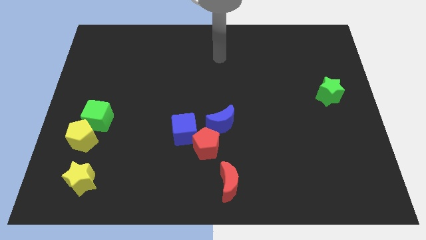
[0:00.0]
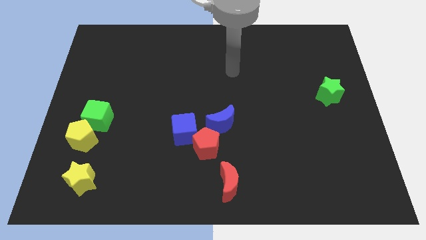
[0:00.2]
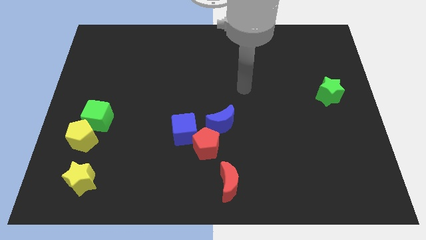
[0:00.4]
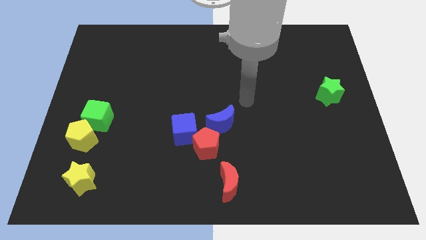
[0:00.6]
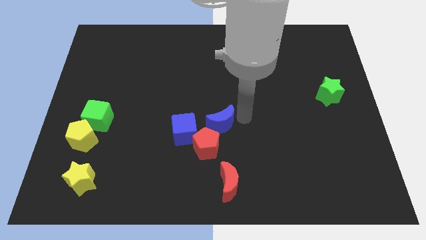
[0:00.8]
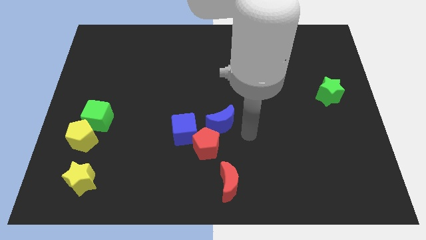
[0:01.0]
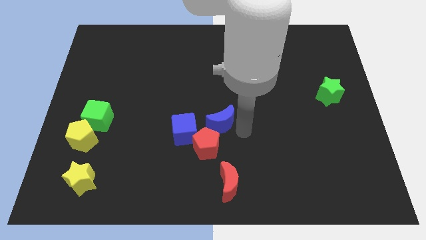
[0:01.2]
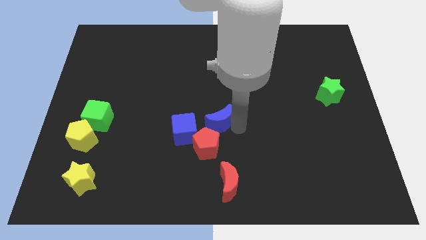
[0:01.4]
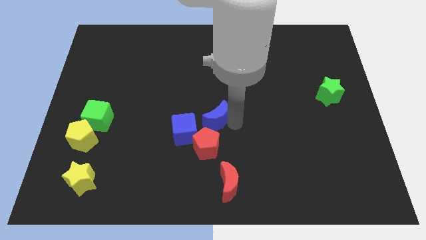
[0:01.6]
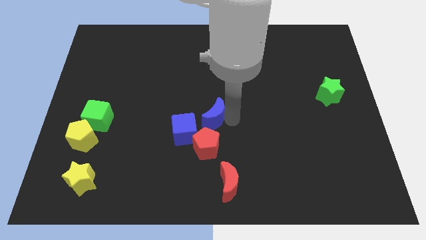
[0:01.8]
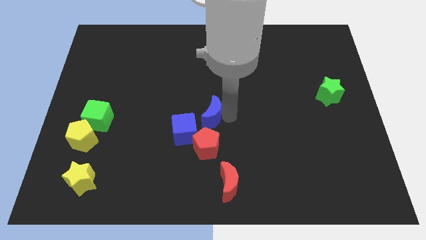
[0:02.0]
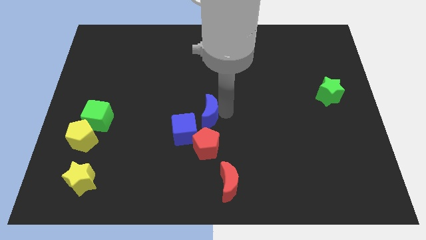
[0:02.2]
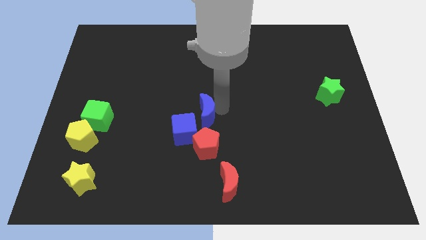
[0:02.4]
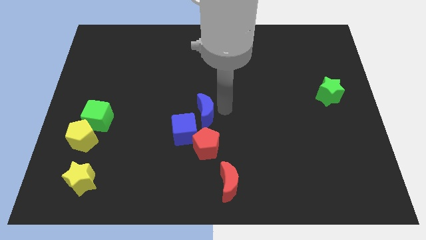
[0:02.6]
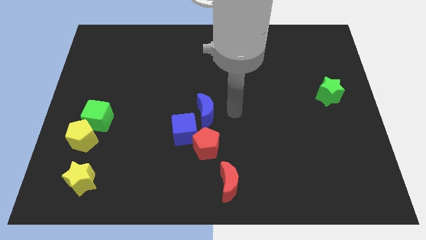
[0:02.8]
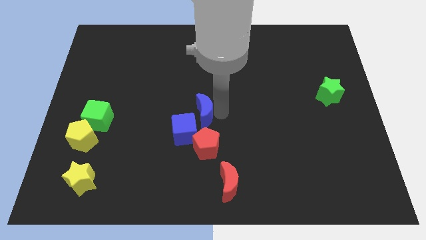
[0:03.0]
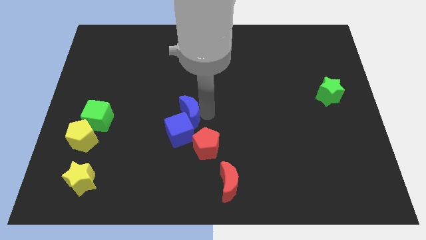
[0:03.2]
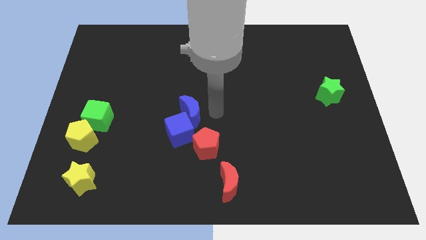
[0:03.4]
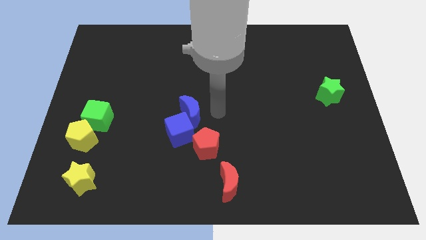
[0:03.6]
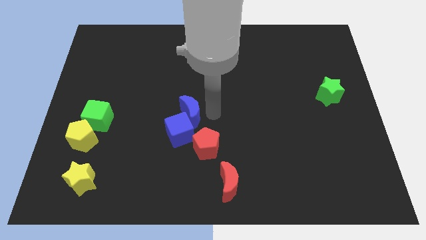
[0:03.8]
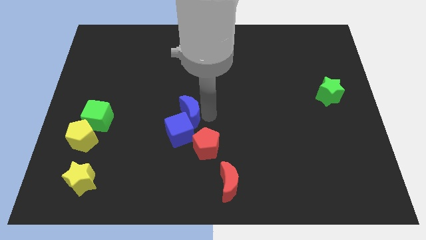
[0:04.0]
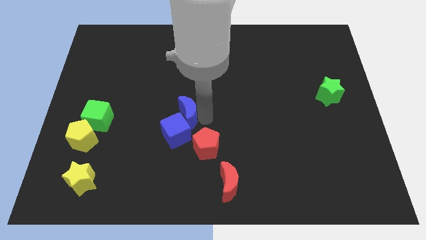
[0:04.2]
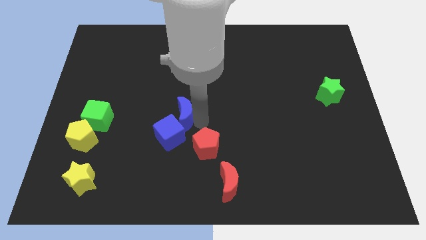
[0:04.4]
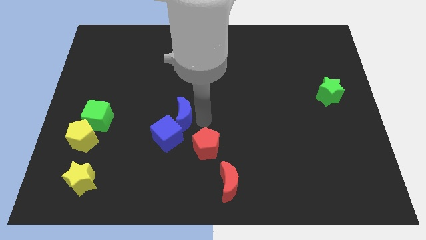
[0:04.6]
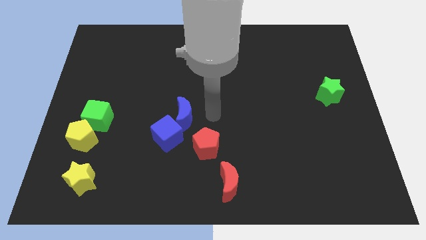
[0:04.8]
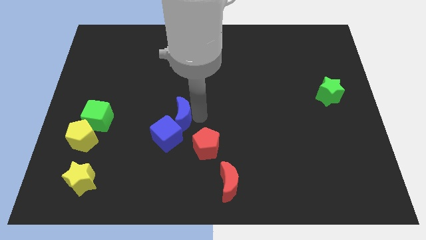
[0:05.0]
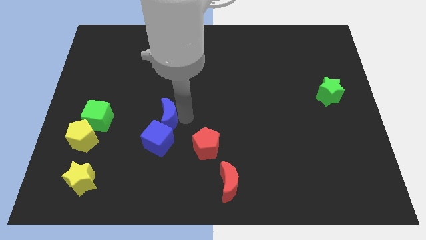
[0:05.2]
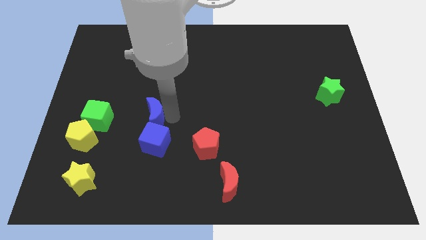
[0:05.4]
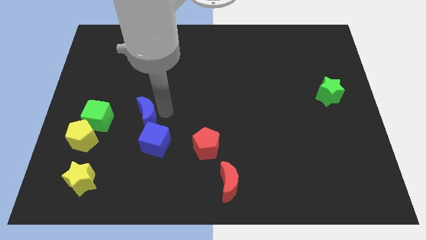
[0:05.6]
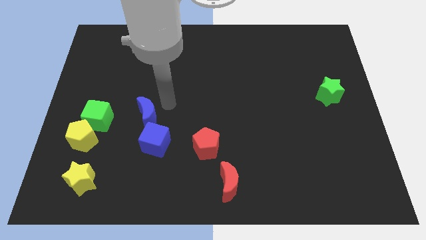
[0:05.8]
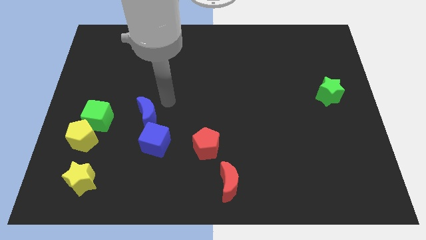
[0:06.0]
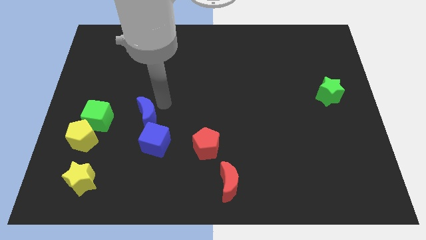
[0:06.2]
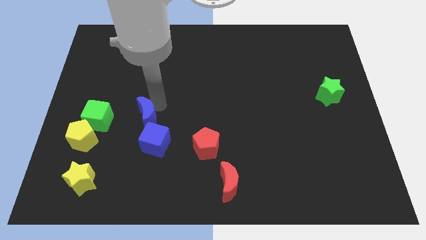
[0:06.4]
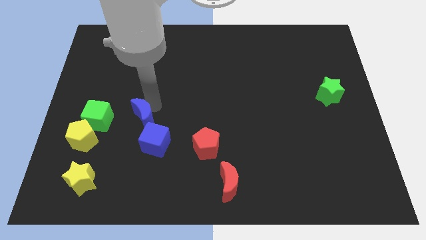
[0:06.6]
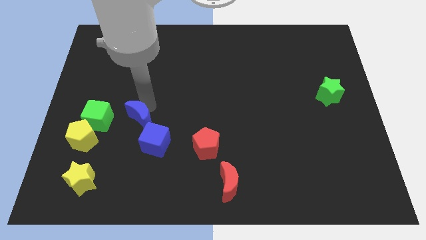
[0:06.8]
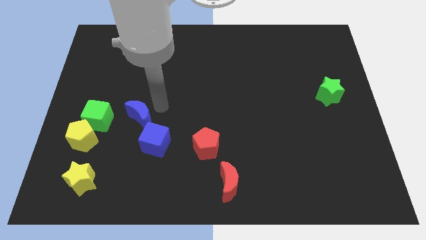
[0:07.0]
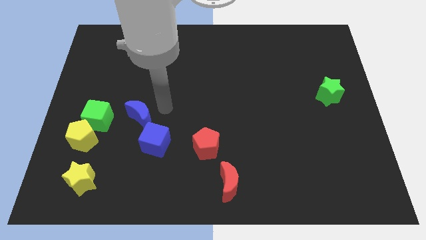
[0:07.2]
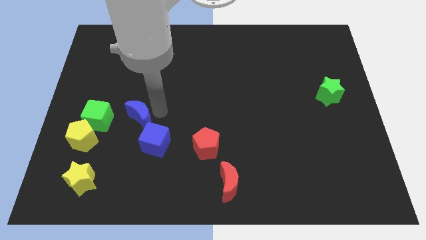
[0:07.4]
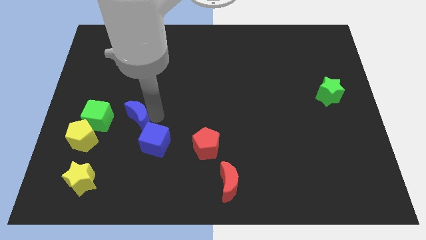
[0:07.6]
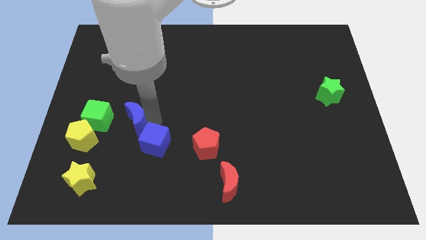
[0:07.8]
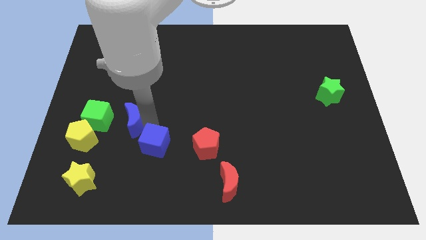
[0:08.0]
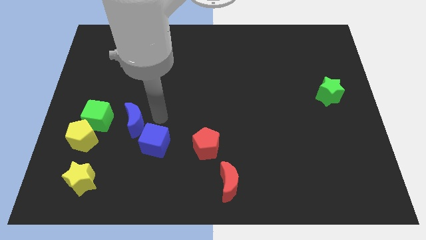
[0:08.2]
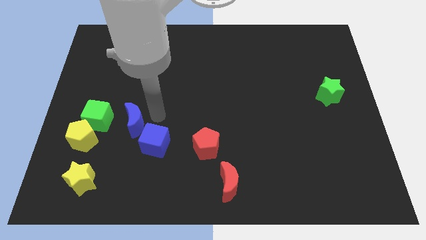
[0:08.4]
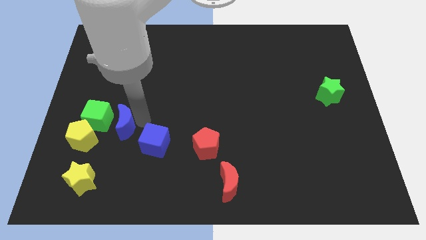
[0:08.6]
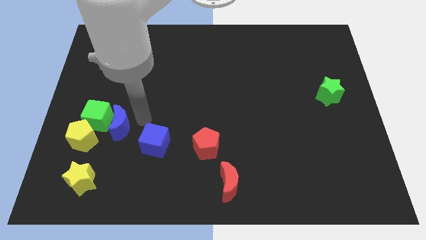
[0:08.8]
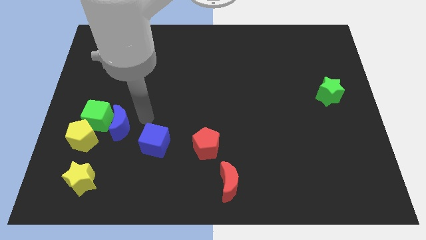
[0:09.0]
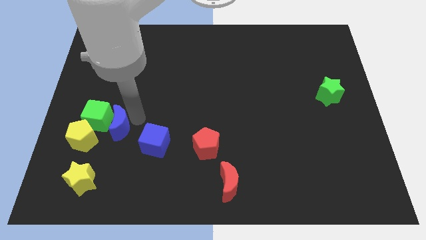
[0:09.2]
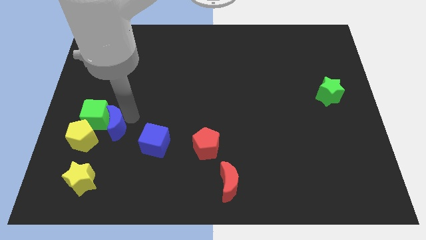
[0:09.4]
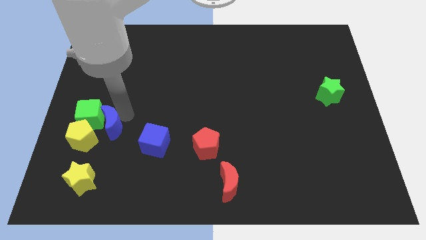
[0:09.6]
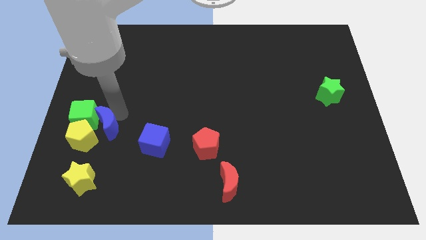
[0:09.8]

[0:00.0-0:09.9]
slide the blue moon next to the yellow pentagon

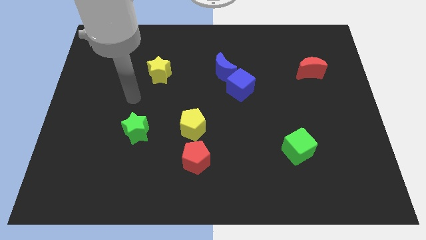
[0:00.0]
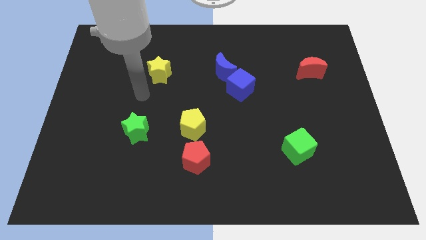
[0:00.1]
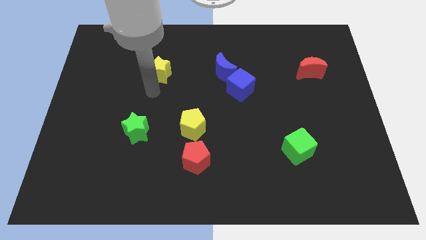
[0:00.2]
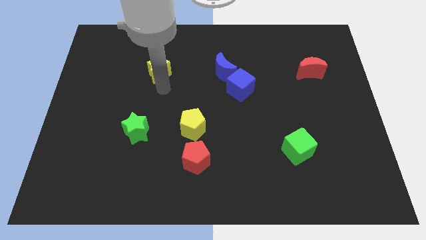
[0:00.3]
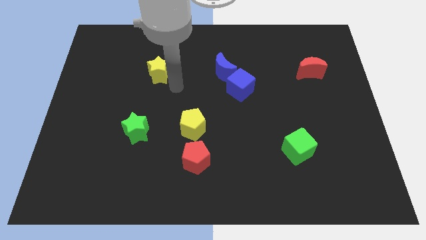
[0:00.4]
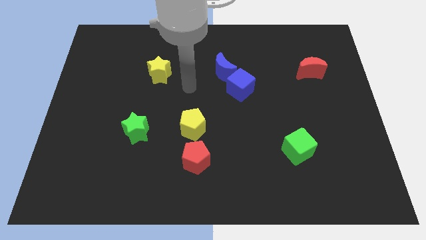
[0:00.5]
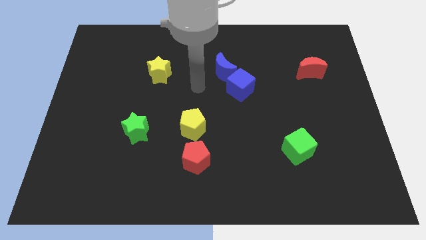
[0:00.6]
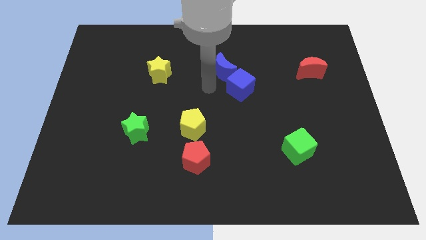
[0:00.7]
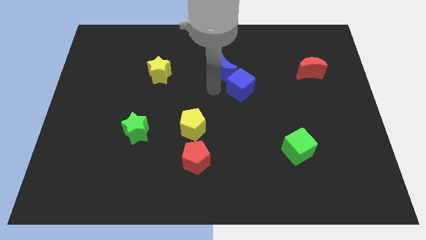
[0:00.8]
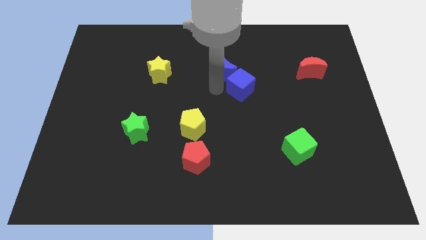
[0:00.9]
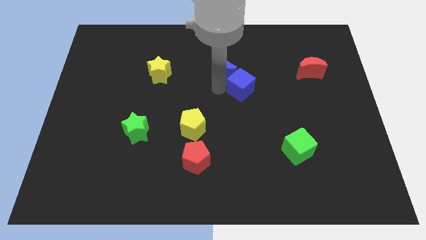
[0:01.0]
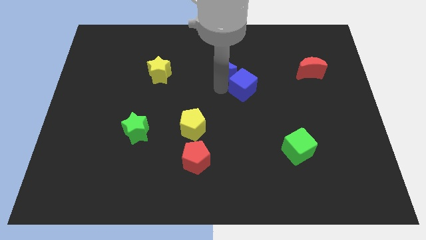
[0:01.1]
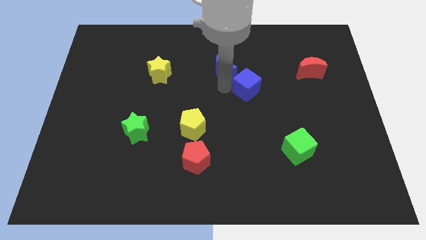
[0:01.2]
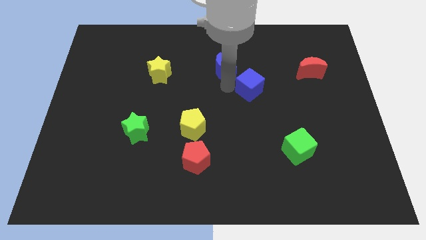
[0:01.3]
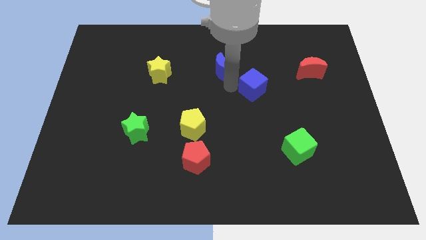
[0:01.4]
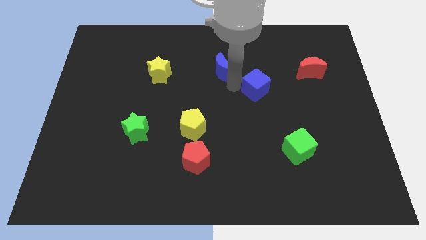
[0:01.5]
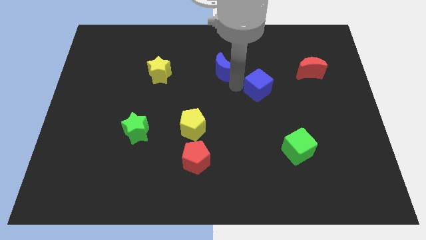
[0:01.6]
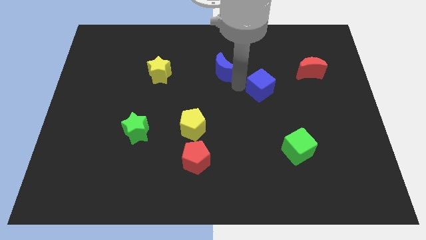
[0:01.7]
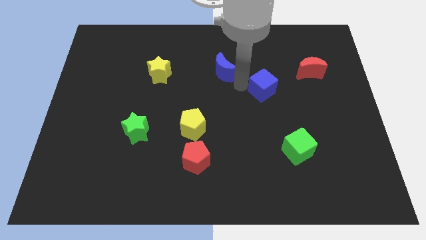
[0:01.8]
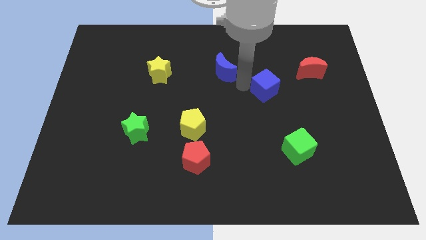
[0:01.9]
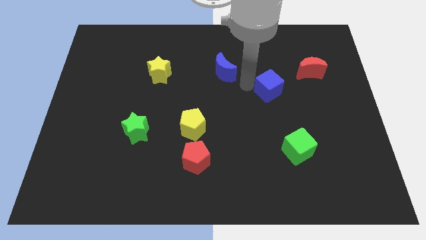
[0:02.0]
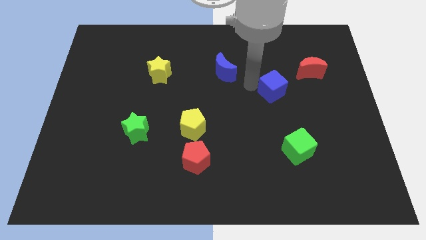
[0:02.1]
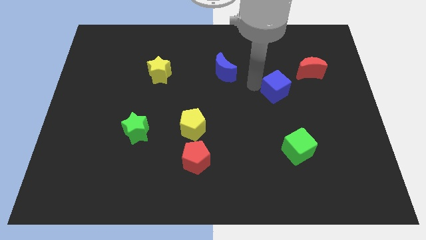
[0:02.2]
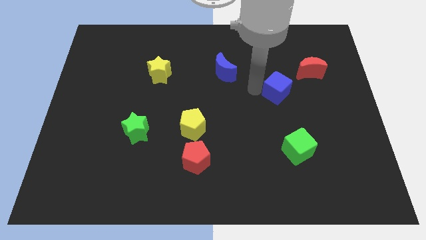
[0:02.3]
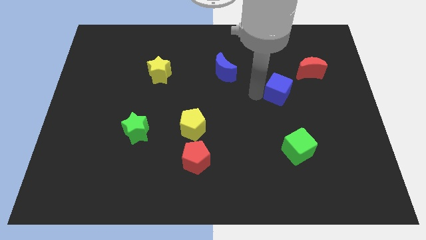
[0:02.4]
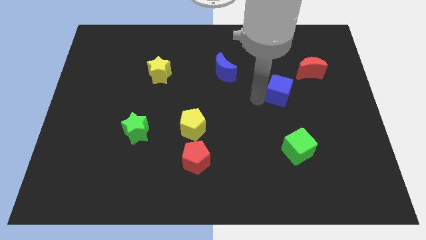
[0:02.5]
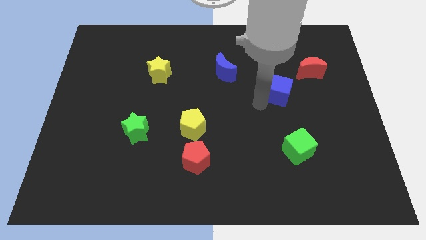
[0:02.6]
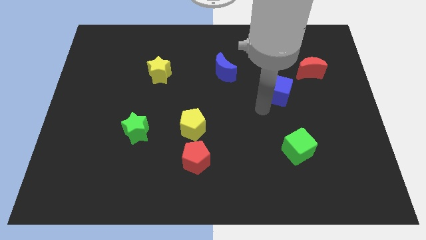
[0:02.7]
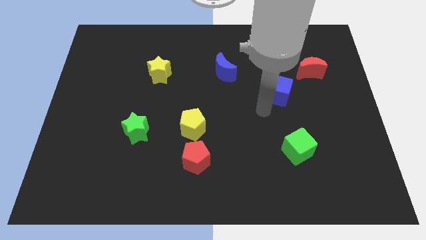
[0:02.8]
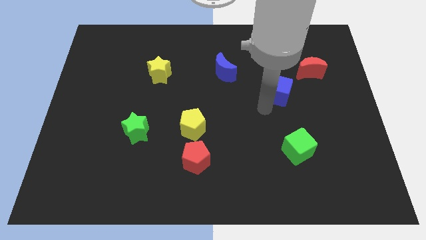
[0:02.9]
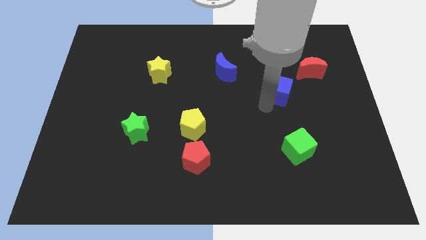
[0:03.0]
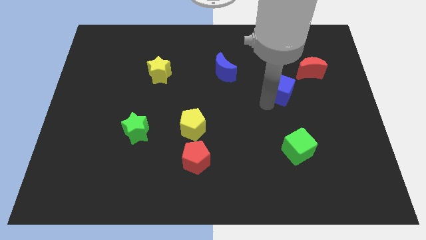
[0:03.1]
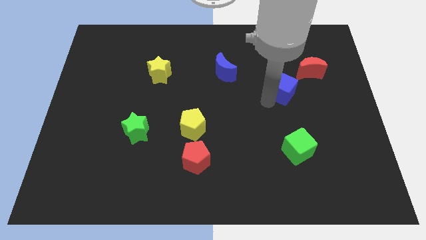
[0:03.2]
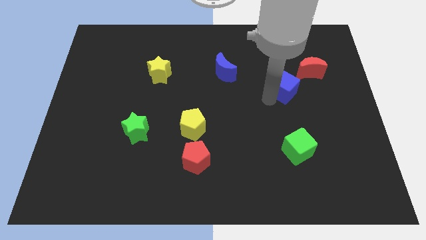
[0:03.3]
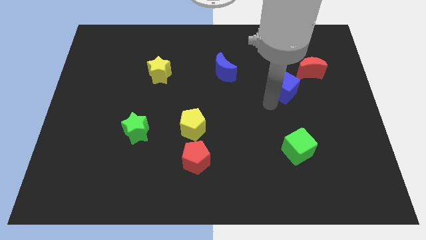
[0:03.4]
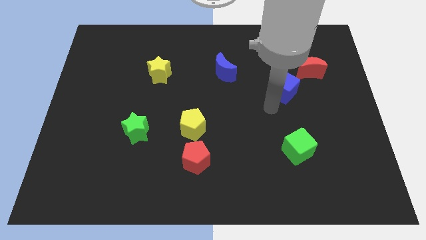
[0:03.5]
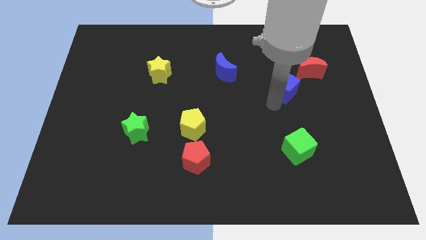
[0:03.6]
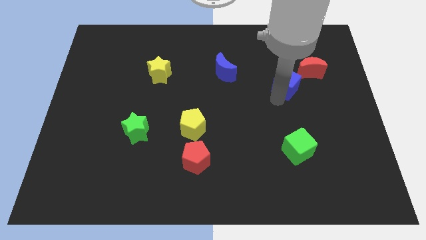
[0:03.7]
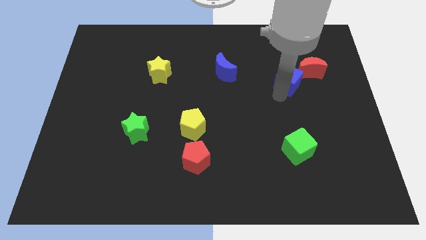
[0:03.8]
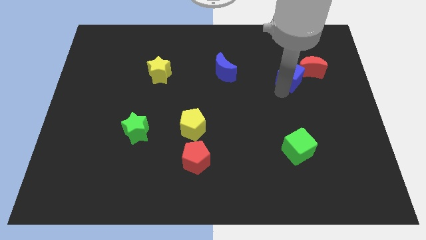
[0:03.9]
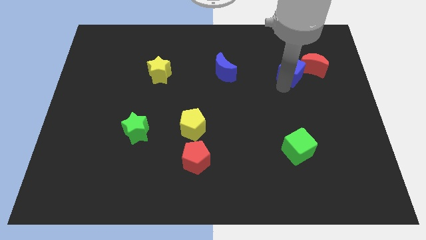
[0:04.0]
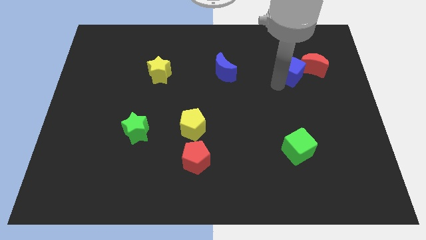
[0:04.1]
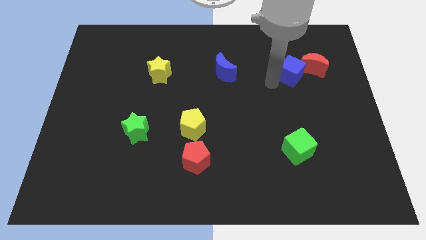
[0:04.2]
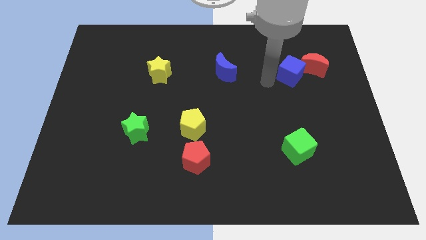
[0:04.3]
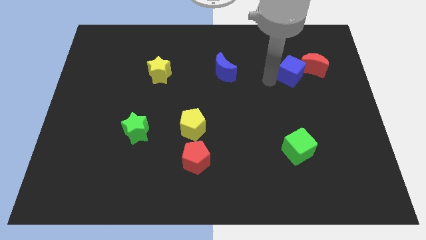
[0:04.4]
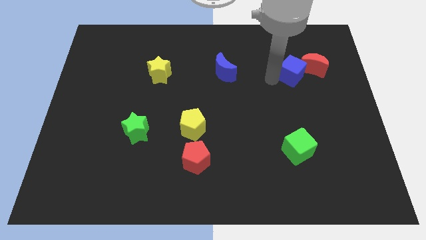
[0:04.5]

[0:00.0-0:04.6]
put the blue cube close to the red moon
